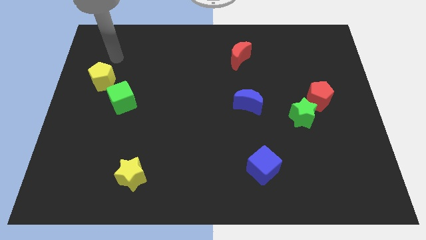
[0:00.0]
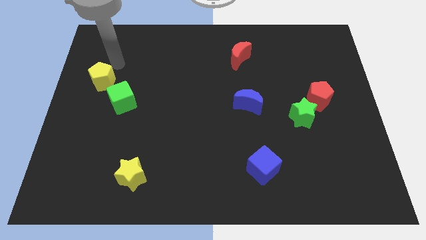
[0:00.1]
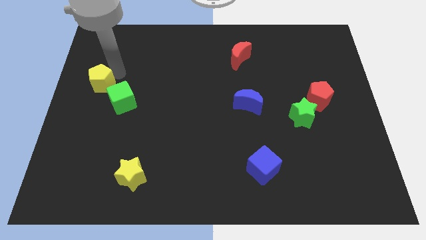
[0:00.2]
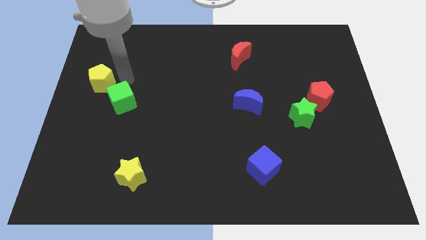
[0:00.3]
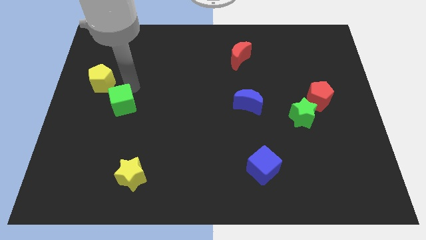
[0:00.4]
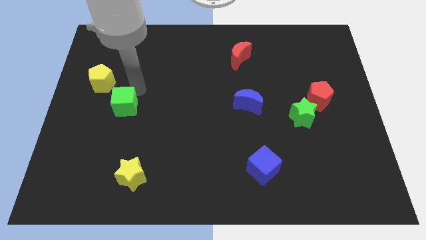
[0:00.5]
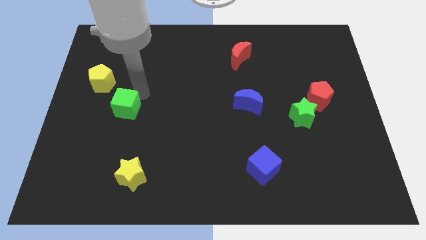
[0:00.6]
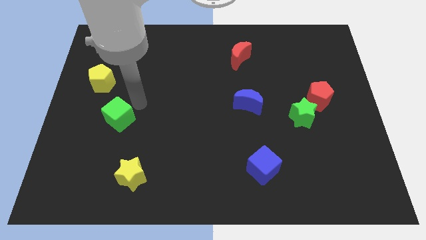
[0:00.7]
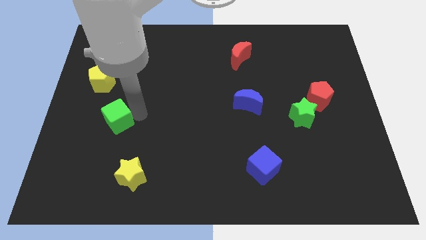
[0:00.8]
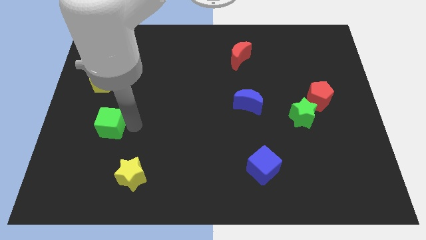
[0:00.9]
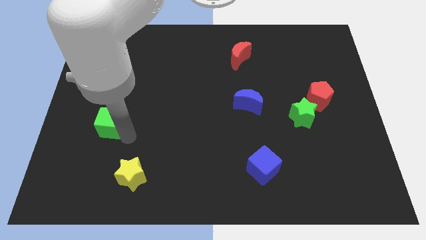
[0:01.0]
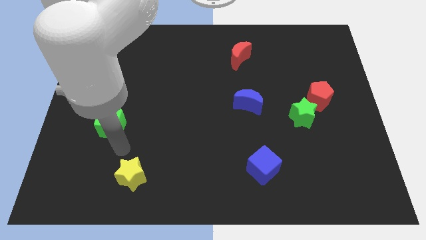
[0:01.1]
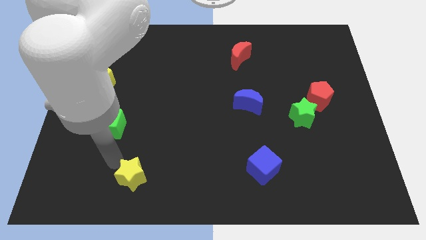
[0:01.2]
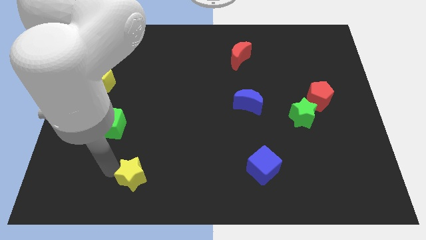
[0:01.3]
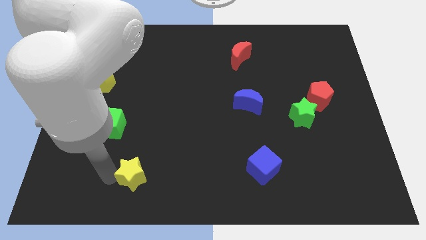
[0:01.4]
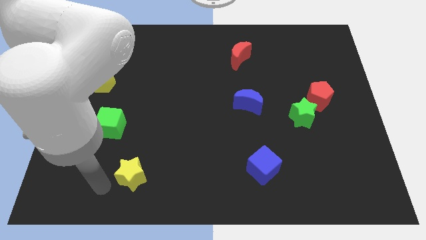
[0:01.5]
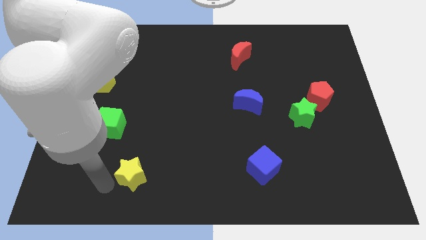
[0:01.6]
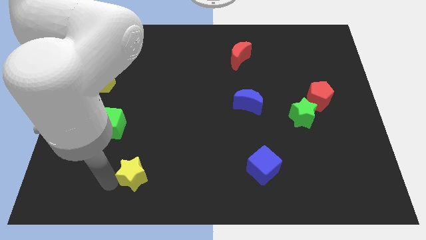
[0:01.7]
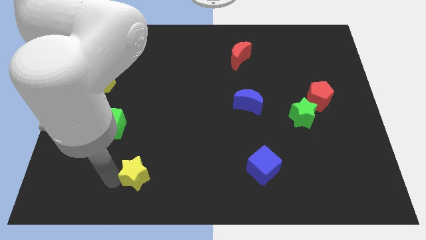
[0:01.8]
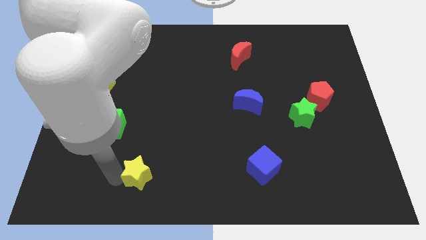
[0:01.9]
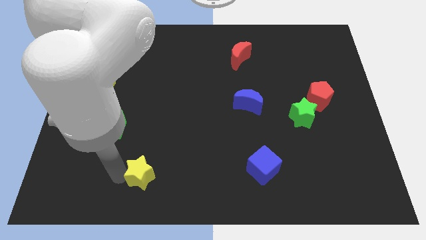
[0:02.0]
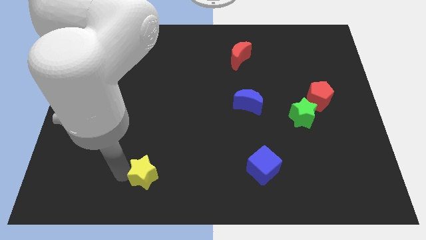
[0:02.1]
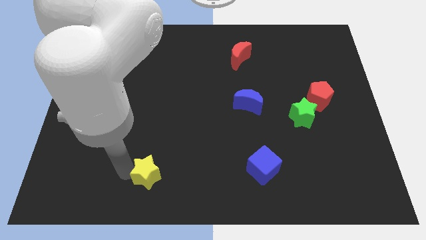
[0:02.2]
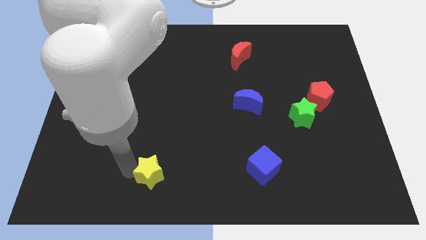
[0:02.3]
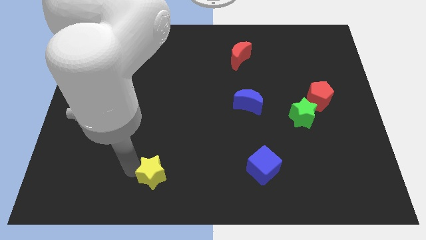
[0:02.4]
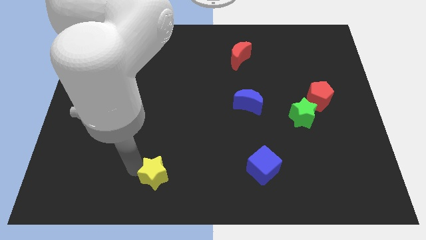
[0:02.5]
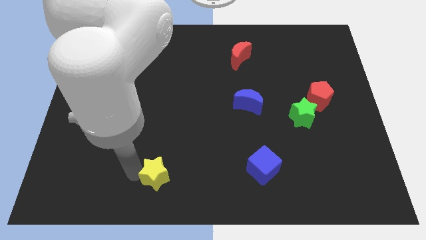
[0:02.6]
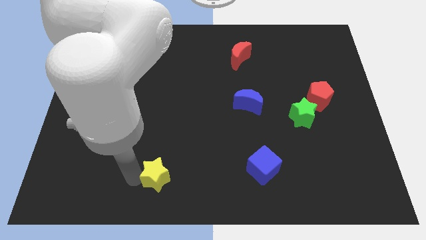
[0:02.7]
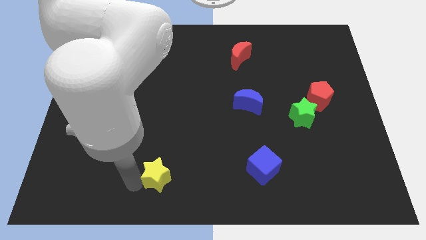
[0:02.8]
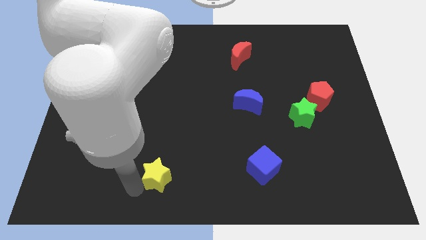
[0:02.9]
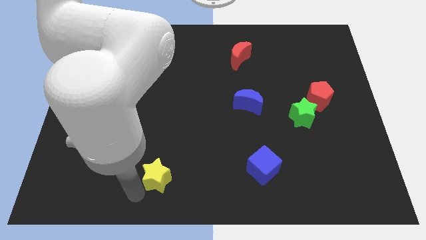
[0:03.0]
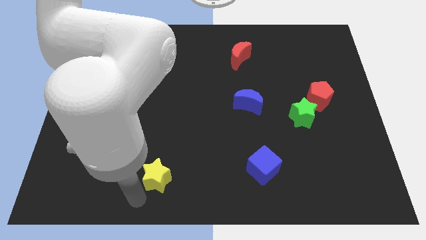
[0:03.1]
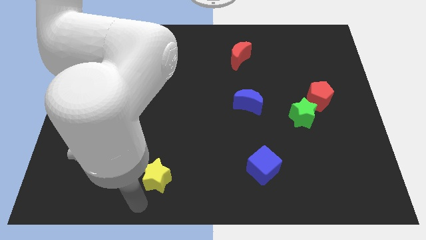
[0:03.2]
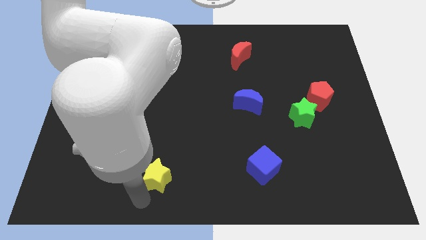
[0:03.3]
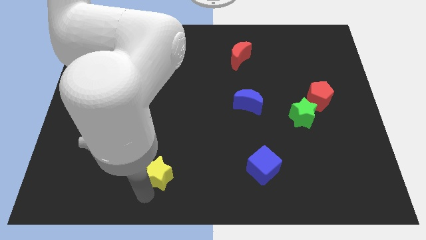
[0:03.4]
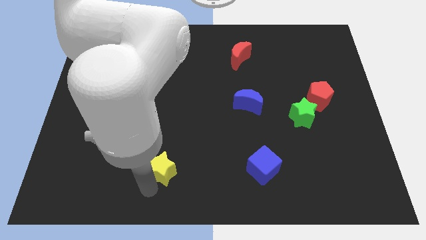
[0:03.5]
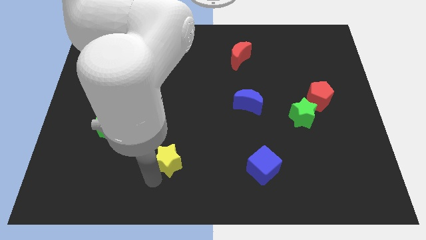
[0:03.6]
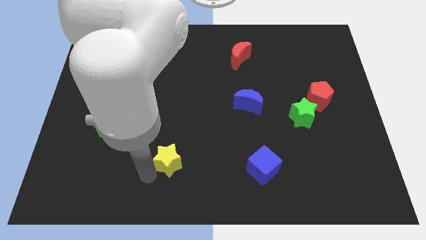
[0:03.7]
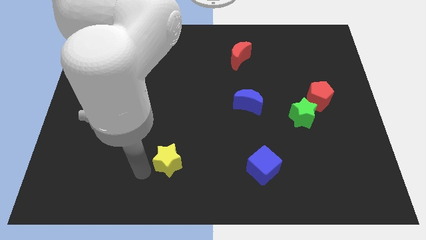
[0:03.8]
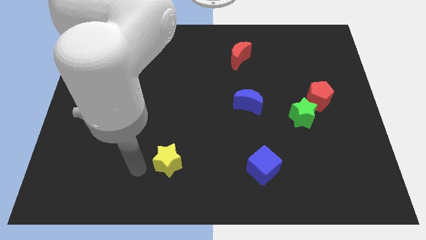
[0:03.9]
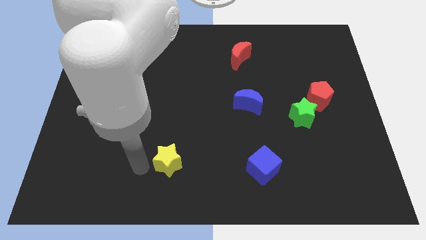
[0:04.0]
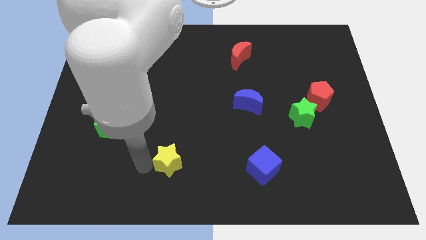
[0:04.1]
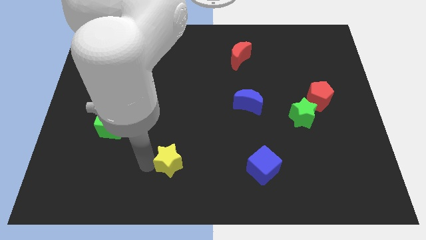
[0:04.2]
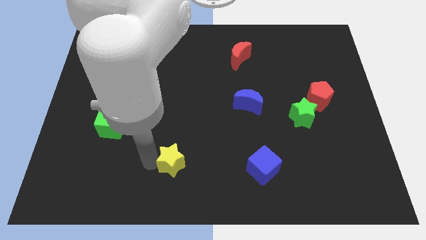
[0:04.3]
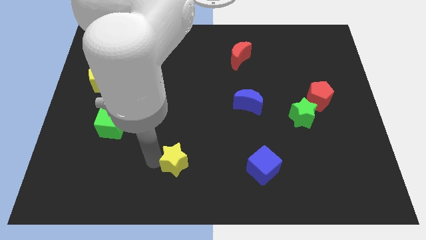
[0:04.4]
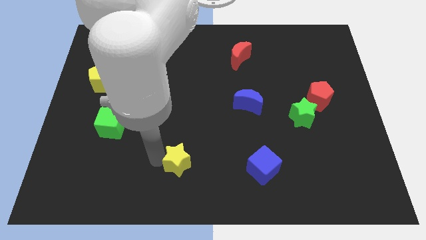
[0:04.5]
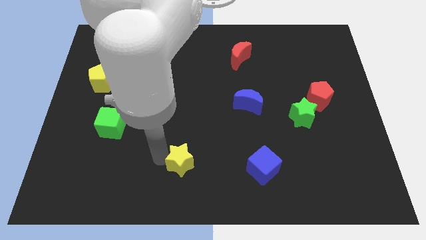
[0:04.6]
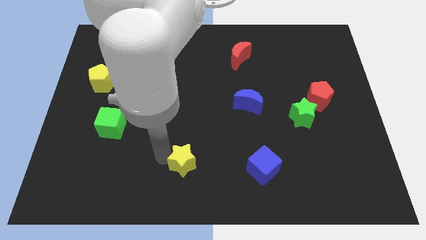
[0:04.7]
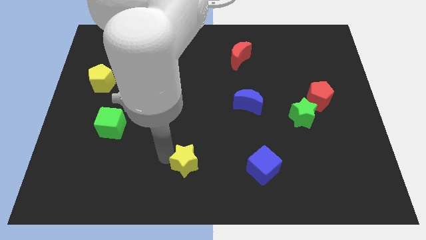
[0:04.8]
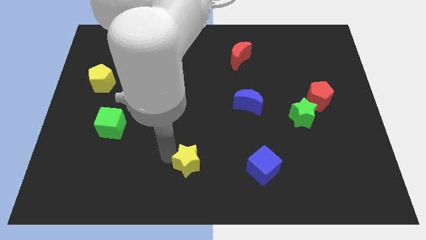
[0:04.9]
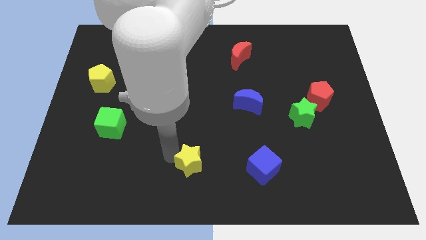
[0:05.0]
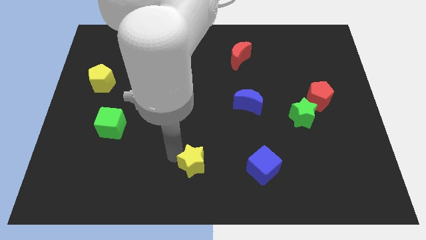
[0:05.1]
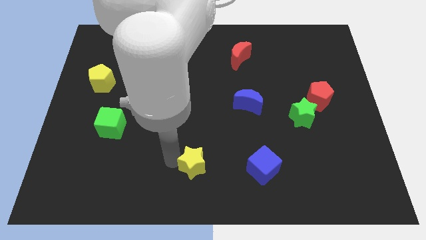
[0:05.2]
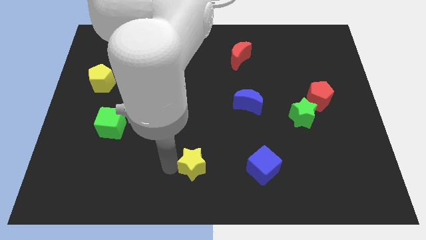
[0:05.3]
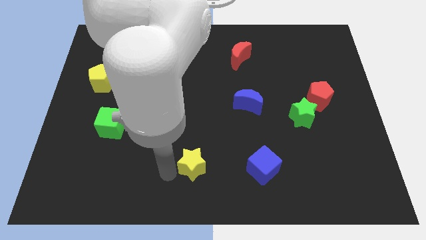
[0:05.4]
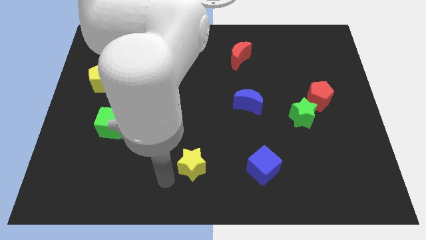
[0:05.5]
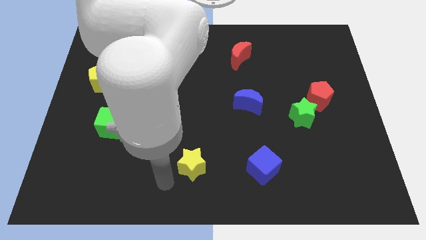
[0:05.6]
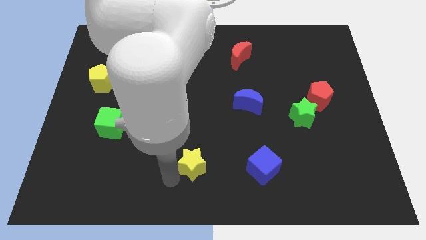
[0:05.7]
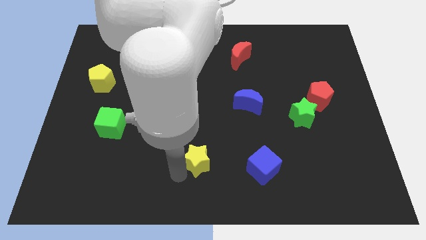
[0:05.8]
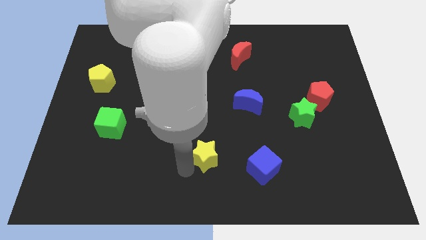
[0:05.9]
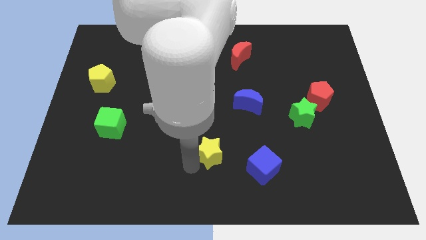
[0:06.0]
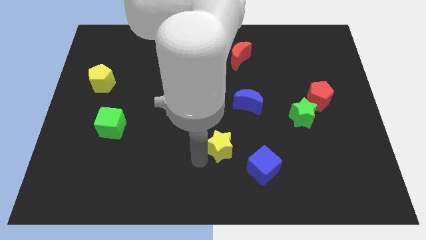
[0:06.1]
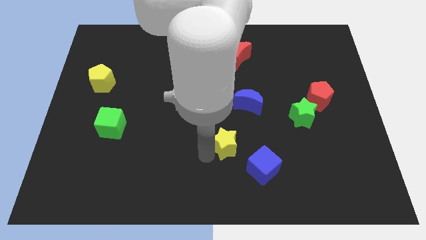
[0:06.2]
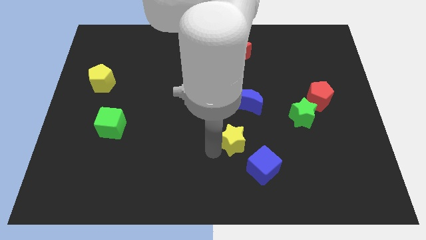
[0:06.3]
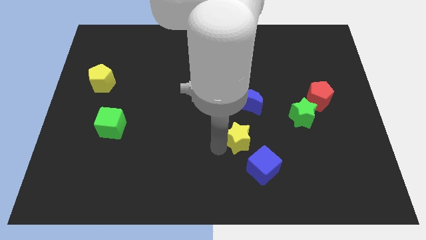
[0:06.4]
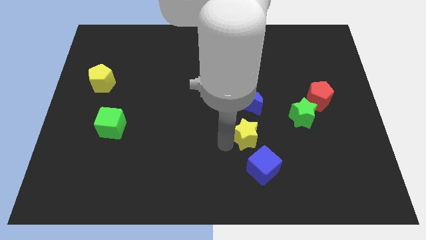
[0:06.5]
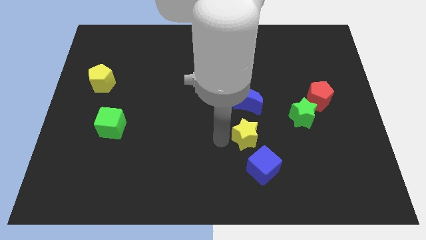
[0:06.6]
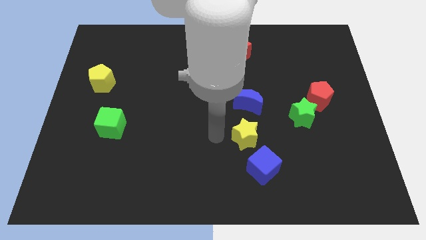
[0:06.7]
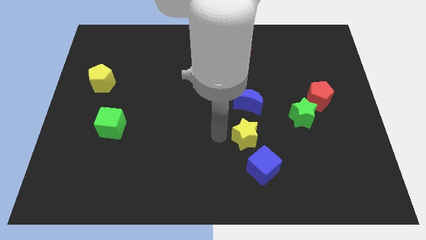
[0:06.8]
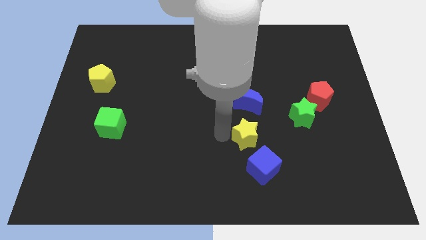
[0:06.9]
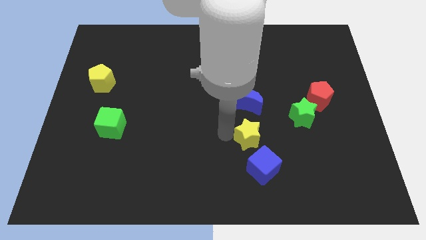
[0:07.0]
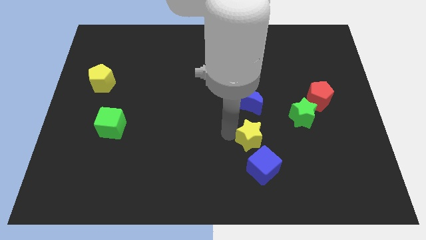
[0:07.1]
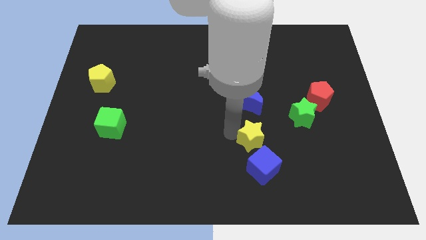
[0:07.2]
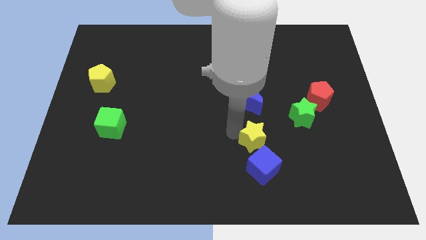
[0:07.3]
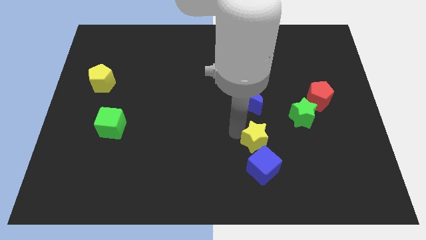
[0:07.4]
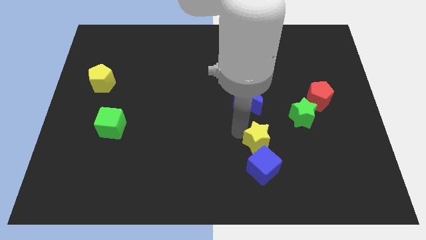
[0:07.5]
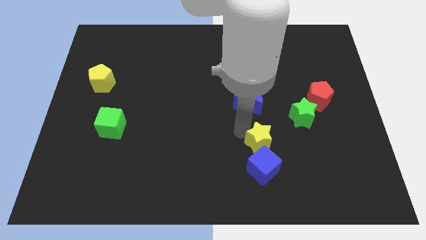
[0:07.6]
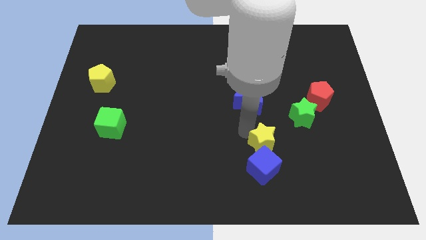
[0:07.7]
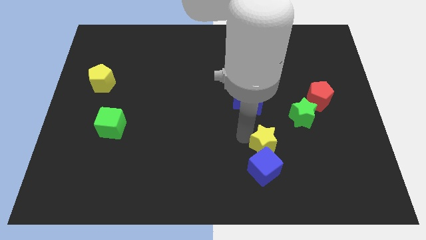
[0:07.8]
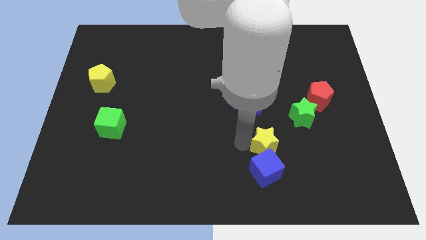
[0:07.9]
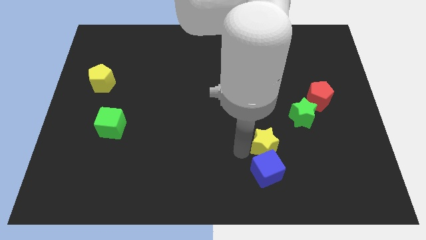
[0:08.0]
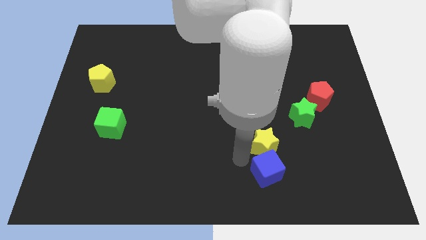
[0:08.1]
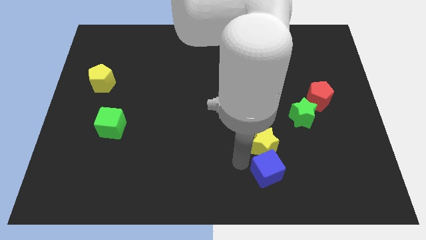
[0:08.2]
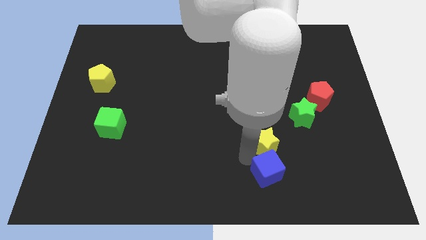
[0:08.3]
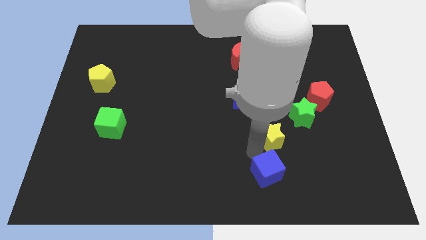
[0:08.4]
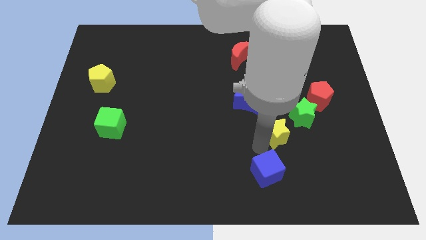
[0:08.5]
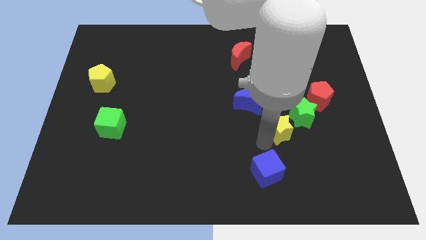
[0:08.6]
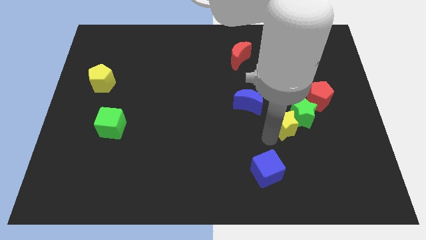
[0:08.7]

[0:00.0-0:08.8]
move the yellow star to the bottom left side of the red pentagon
